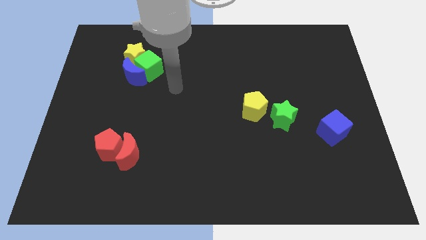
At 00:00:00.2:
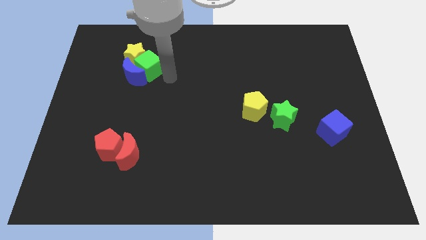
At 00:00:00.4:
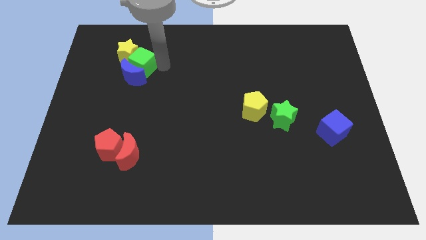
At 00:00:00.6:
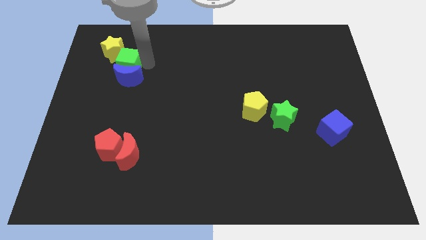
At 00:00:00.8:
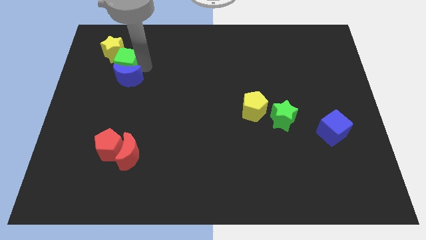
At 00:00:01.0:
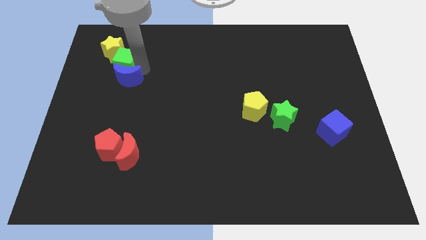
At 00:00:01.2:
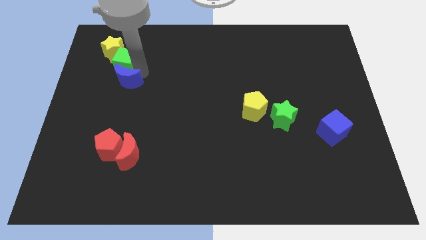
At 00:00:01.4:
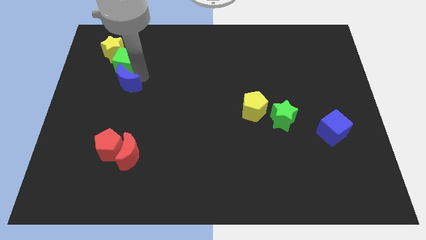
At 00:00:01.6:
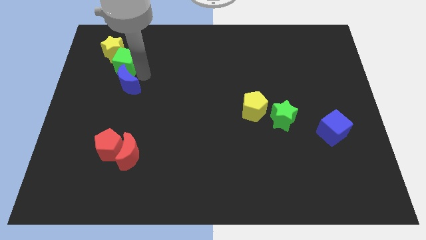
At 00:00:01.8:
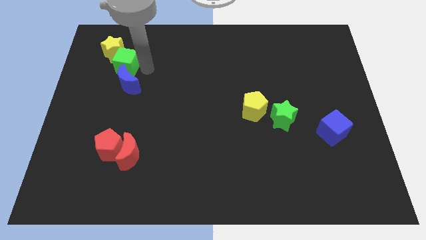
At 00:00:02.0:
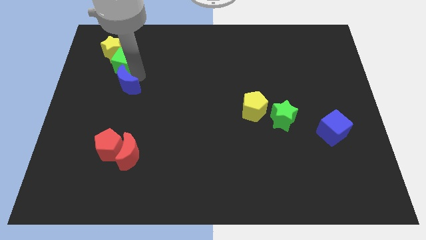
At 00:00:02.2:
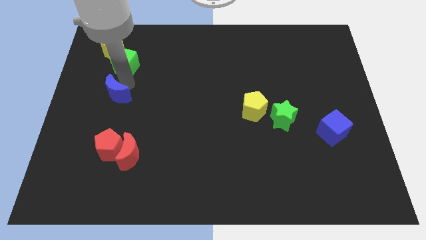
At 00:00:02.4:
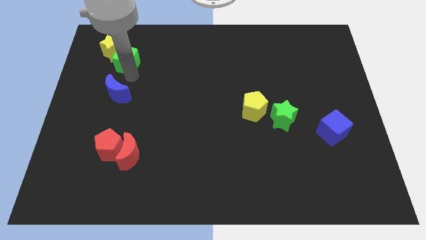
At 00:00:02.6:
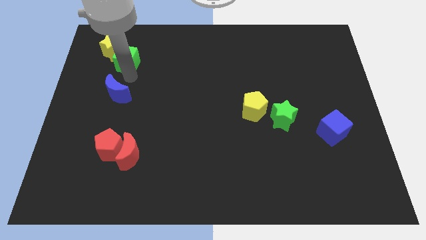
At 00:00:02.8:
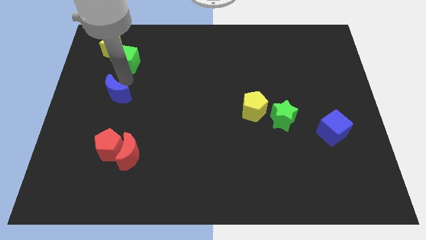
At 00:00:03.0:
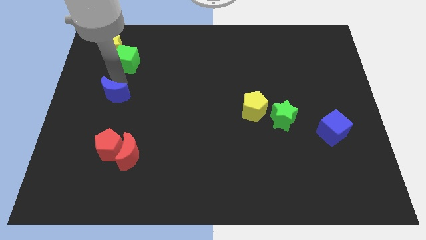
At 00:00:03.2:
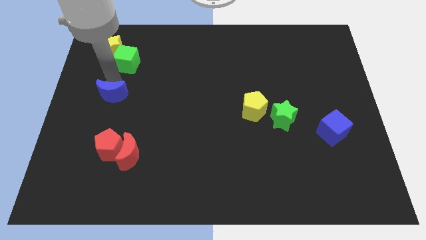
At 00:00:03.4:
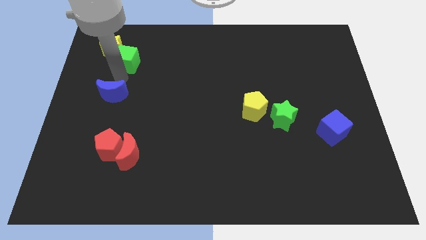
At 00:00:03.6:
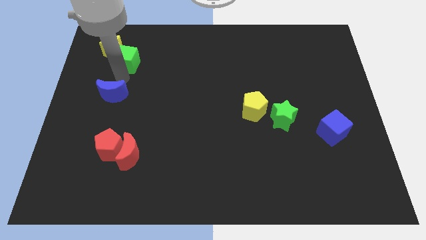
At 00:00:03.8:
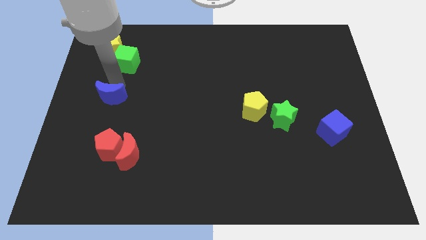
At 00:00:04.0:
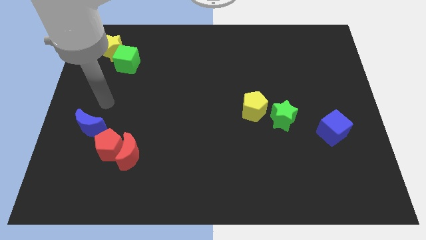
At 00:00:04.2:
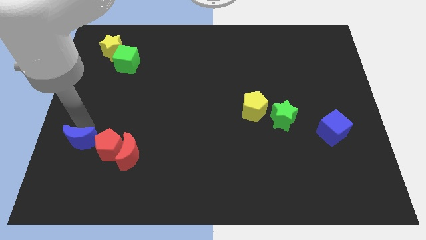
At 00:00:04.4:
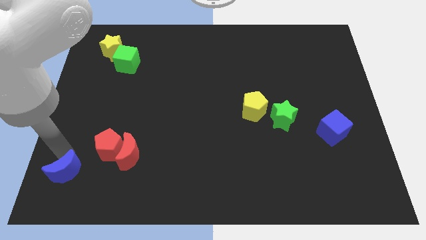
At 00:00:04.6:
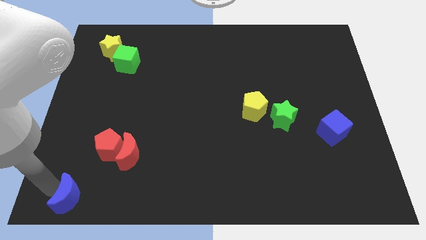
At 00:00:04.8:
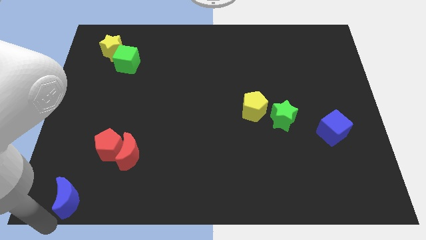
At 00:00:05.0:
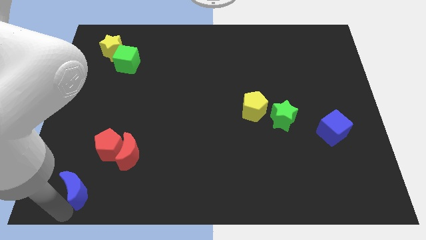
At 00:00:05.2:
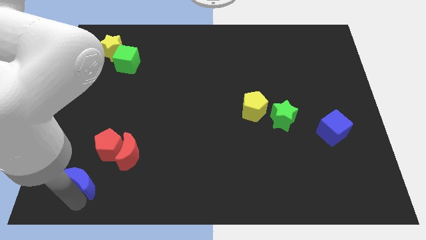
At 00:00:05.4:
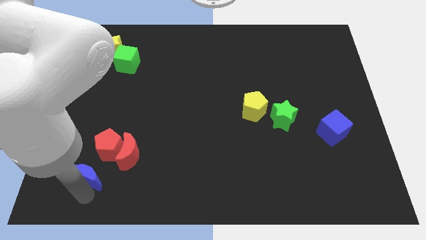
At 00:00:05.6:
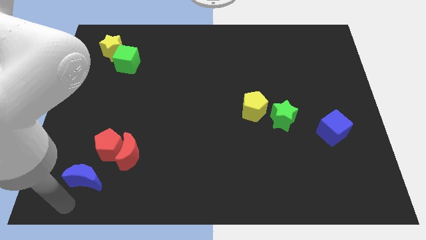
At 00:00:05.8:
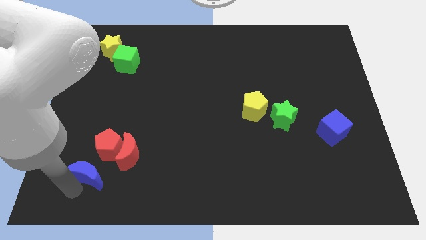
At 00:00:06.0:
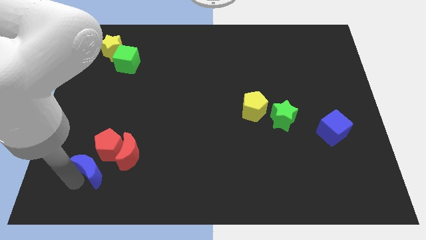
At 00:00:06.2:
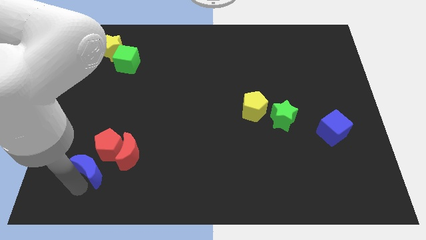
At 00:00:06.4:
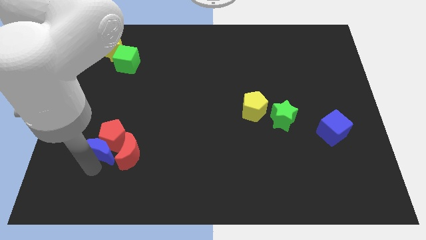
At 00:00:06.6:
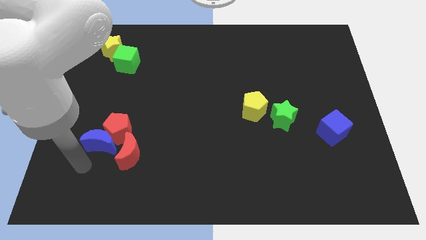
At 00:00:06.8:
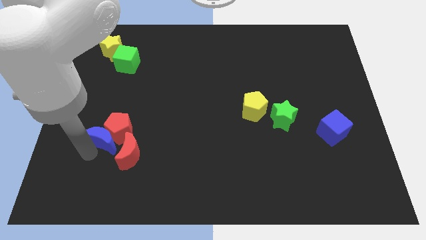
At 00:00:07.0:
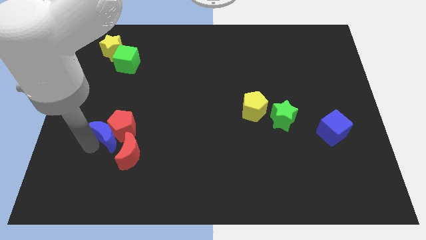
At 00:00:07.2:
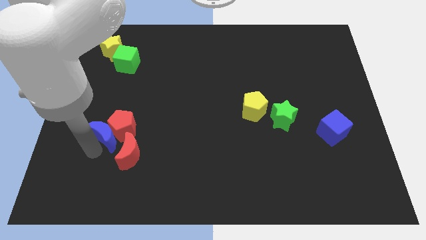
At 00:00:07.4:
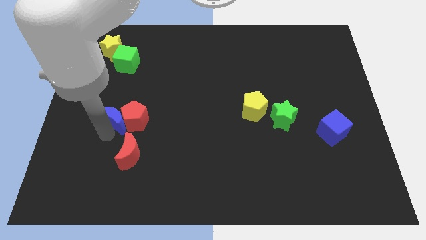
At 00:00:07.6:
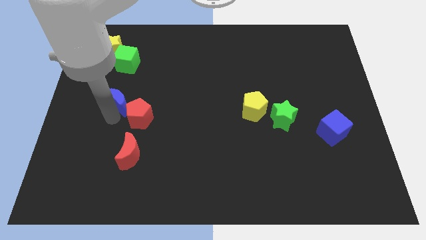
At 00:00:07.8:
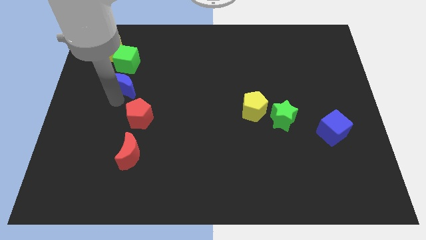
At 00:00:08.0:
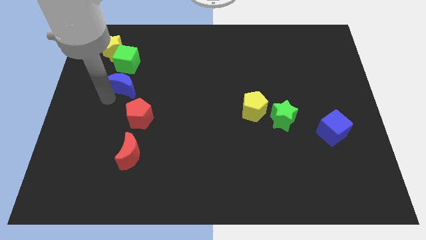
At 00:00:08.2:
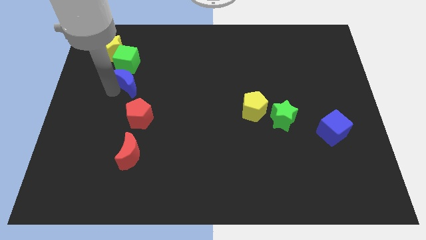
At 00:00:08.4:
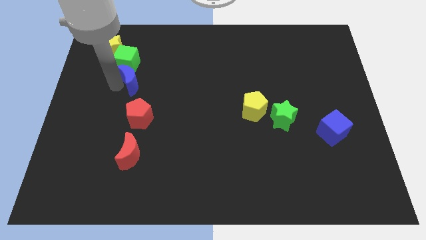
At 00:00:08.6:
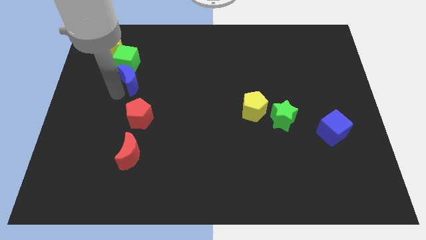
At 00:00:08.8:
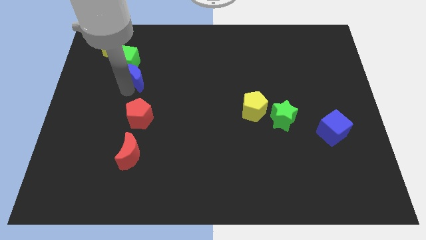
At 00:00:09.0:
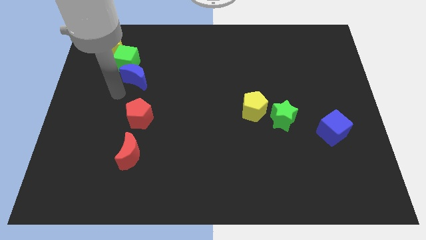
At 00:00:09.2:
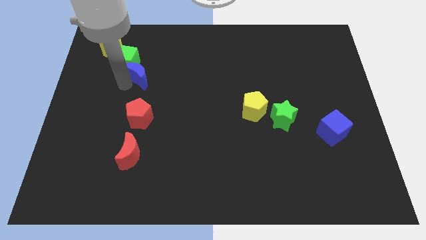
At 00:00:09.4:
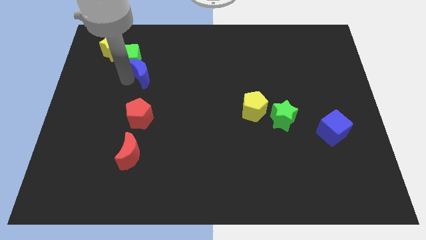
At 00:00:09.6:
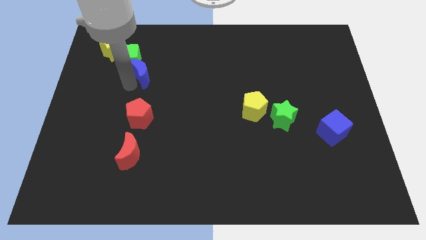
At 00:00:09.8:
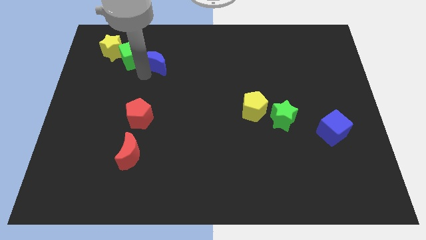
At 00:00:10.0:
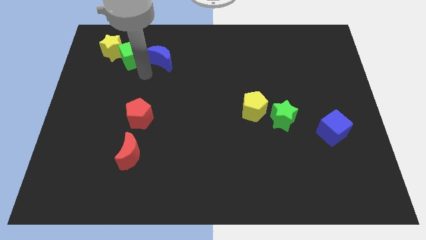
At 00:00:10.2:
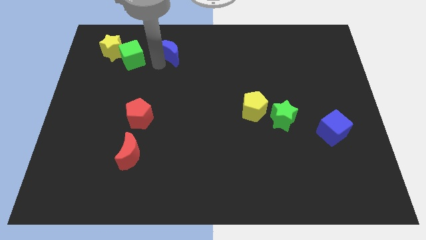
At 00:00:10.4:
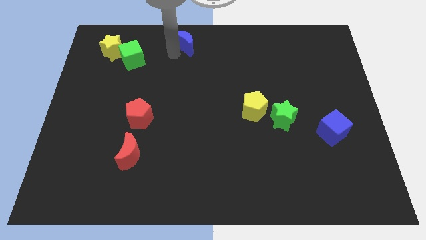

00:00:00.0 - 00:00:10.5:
move the blue moon to the top side

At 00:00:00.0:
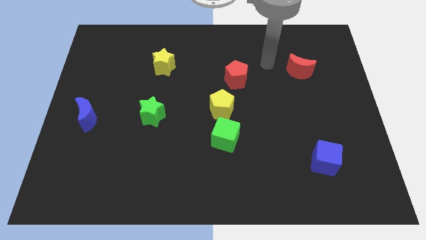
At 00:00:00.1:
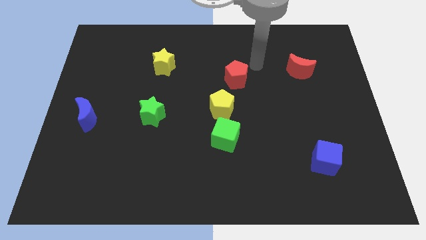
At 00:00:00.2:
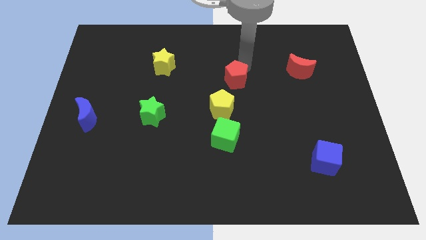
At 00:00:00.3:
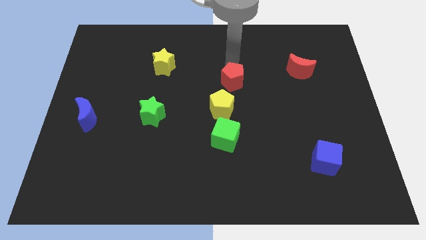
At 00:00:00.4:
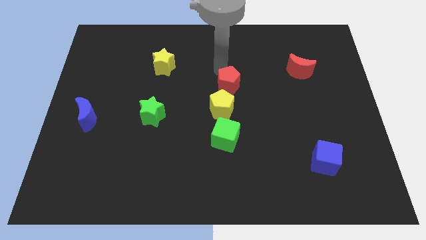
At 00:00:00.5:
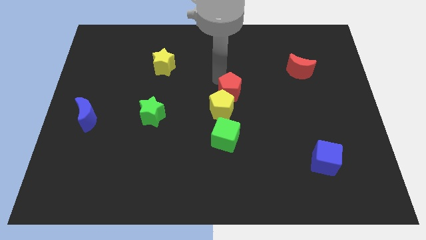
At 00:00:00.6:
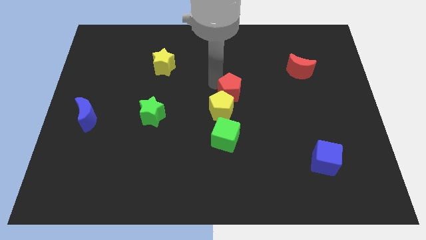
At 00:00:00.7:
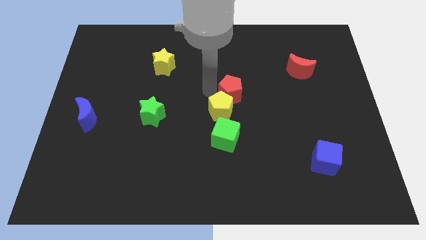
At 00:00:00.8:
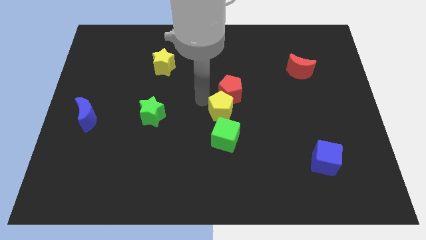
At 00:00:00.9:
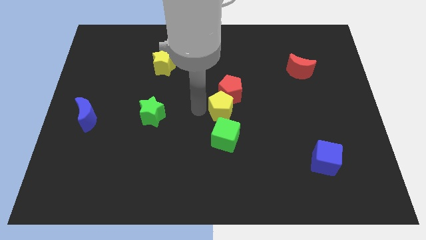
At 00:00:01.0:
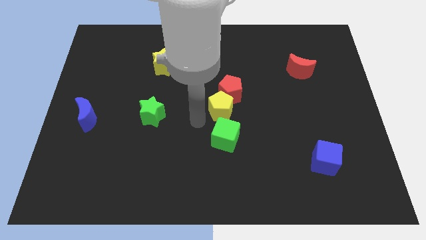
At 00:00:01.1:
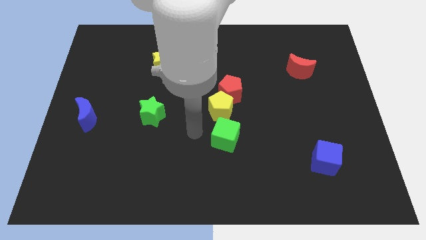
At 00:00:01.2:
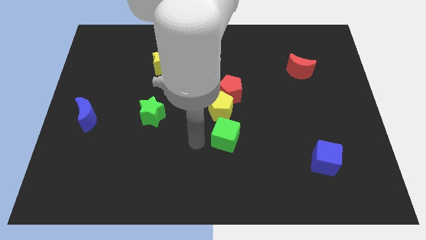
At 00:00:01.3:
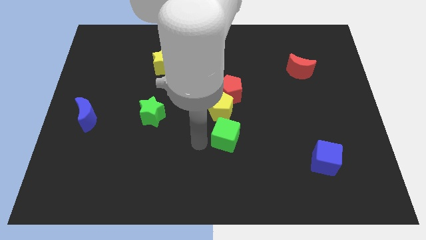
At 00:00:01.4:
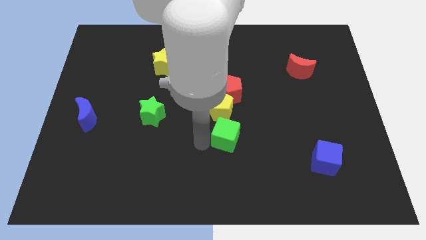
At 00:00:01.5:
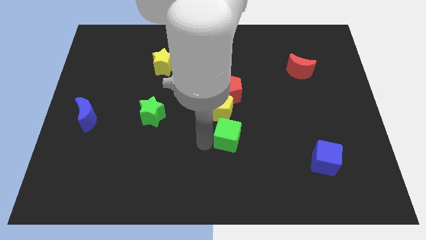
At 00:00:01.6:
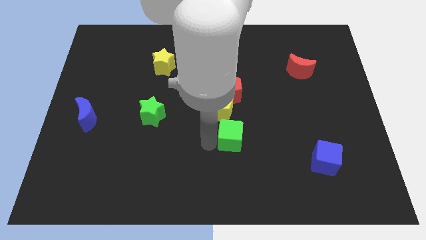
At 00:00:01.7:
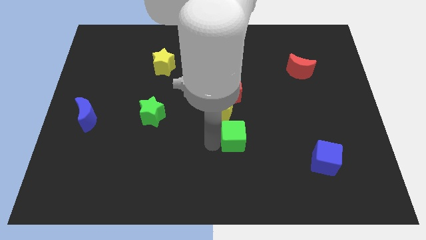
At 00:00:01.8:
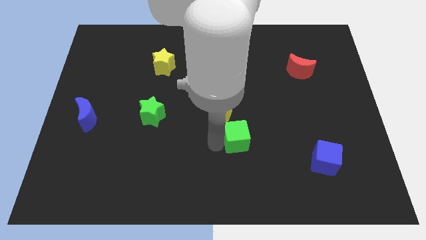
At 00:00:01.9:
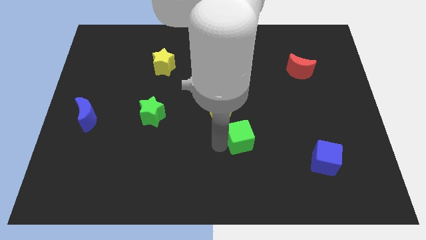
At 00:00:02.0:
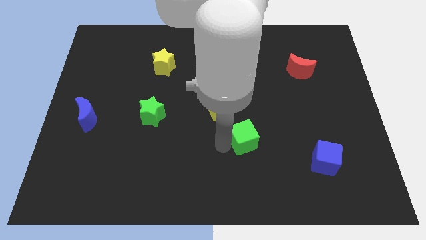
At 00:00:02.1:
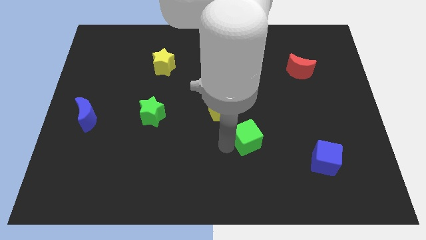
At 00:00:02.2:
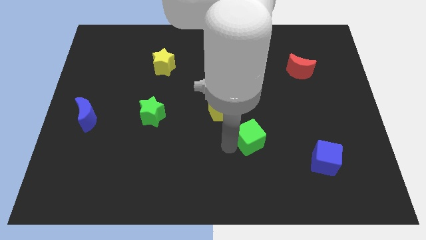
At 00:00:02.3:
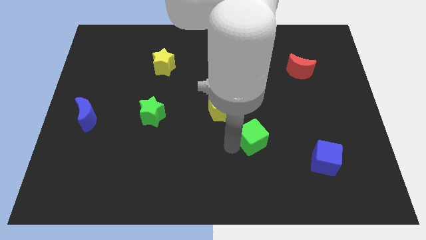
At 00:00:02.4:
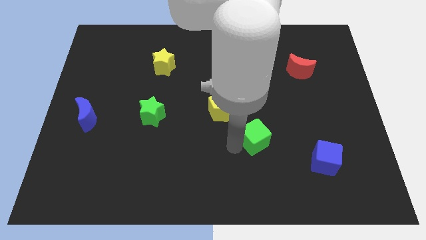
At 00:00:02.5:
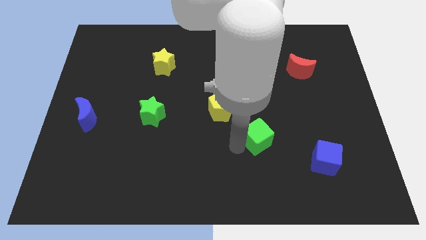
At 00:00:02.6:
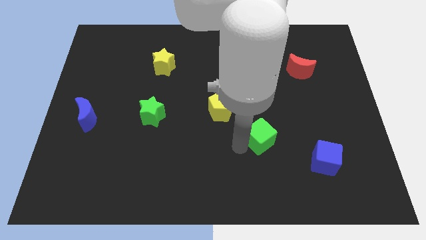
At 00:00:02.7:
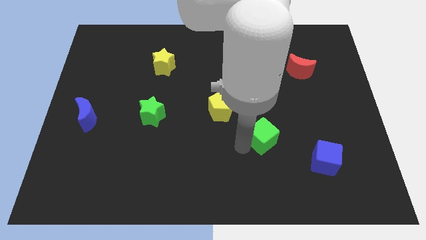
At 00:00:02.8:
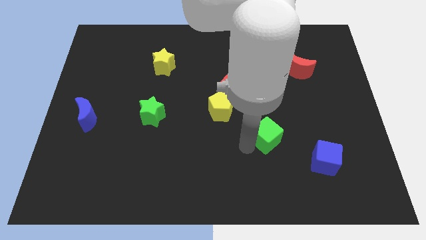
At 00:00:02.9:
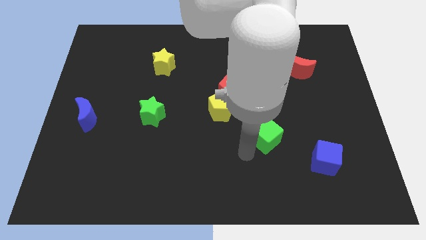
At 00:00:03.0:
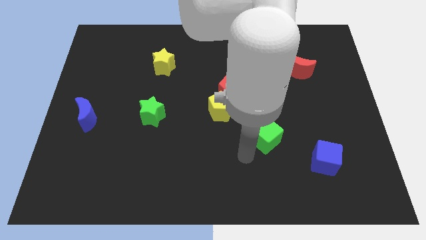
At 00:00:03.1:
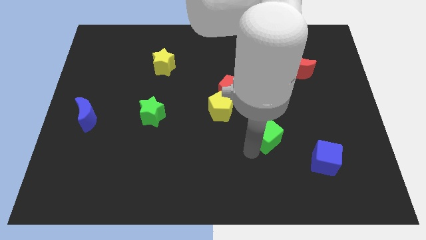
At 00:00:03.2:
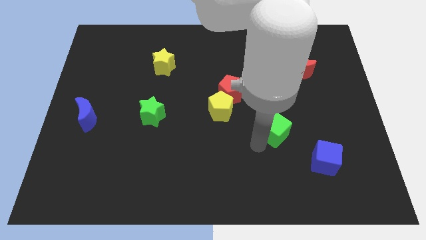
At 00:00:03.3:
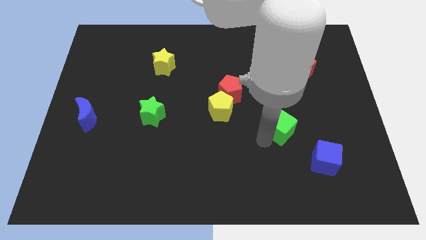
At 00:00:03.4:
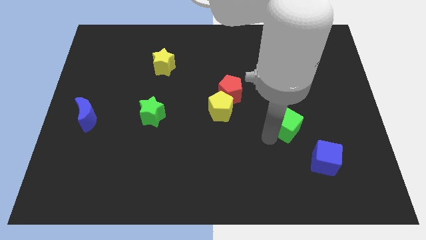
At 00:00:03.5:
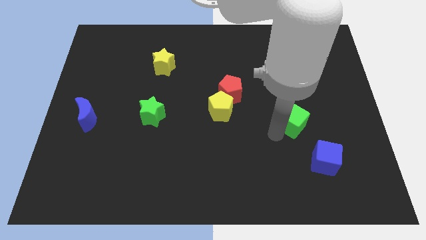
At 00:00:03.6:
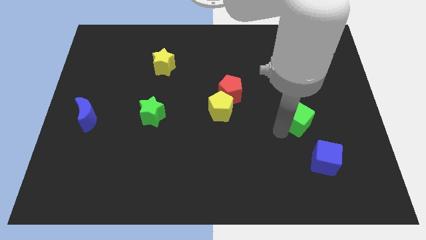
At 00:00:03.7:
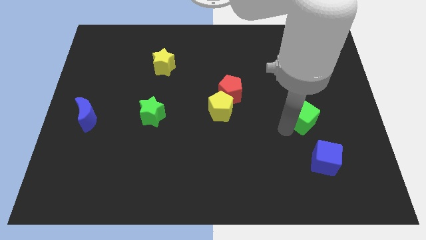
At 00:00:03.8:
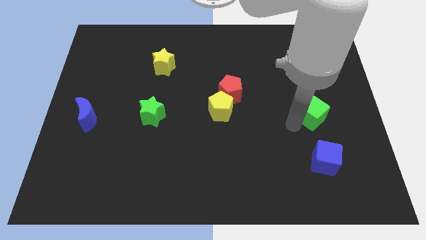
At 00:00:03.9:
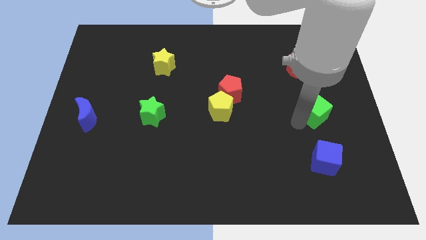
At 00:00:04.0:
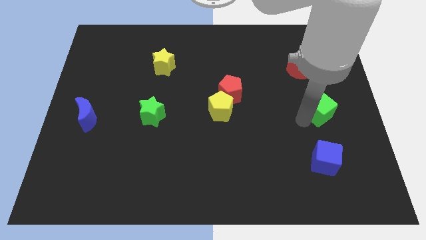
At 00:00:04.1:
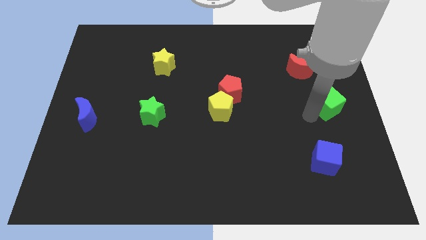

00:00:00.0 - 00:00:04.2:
put the green cube to the center right
